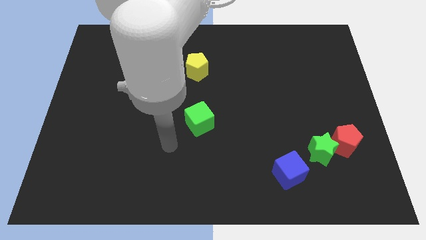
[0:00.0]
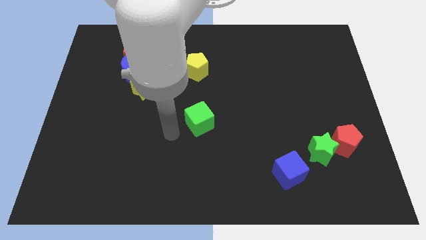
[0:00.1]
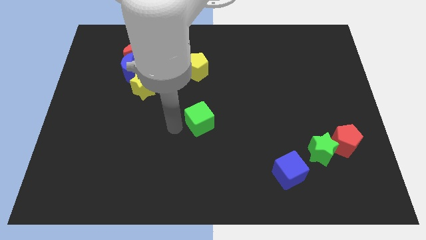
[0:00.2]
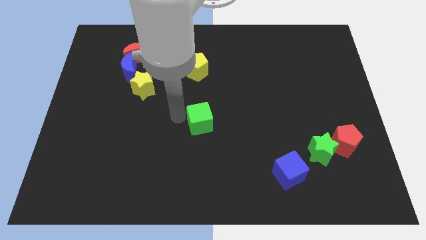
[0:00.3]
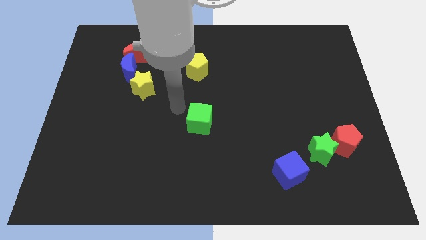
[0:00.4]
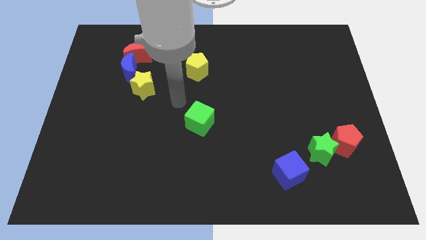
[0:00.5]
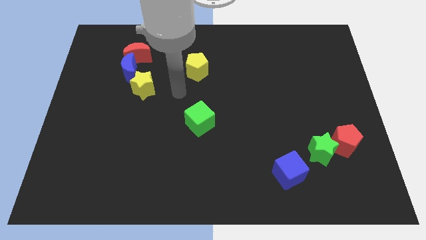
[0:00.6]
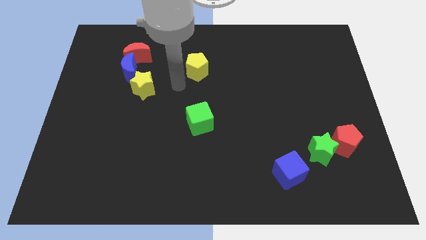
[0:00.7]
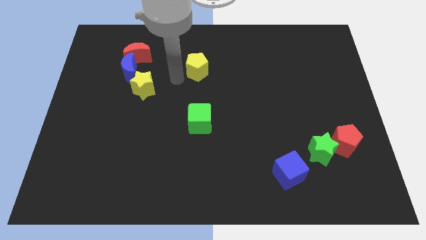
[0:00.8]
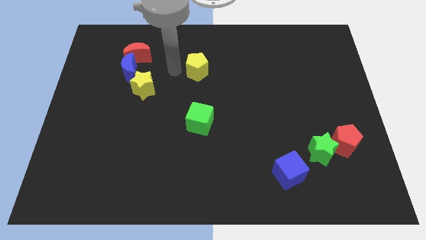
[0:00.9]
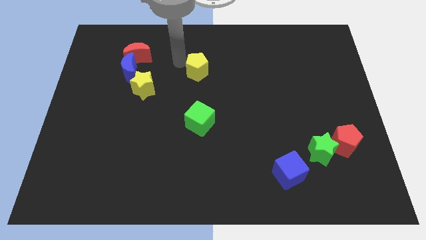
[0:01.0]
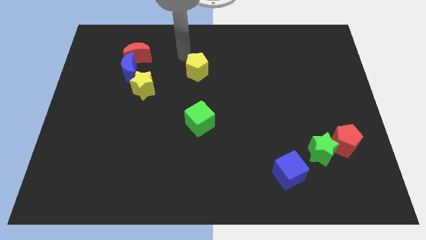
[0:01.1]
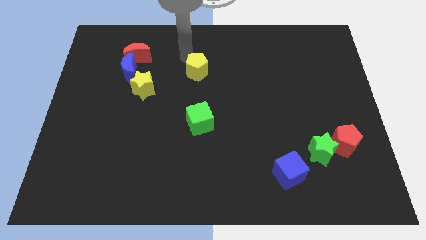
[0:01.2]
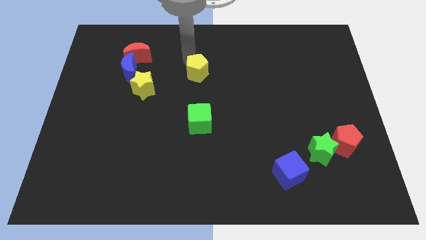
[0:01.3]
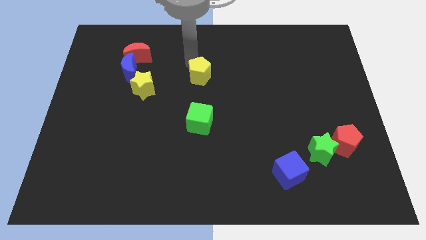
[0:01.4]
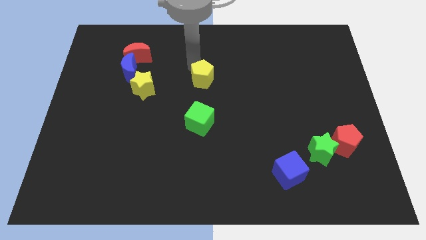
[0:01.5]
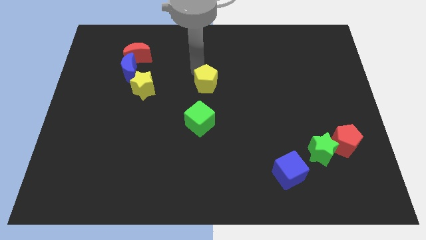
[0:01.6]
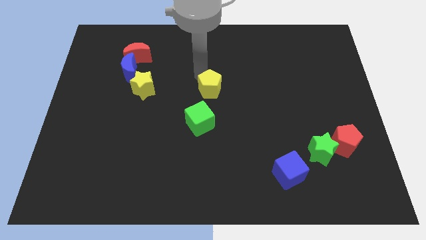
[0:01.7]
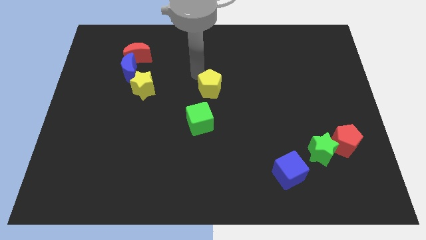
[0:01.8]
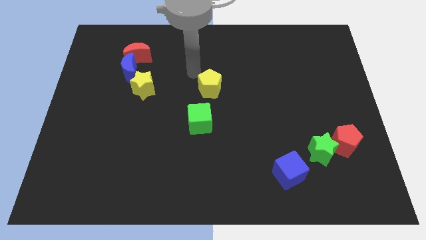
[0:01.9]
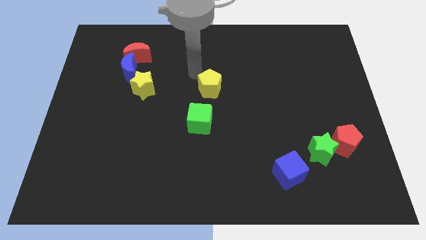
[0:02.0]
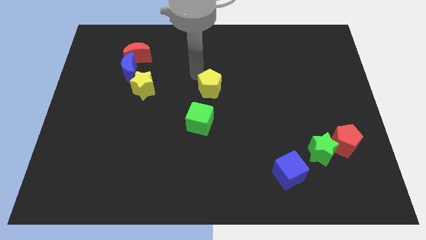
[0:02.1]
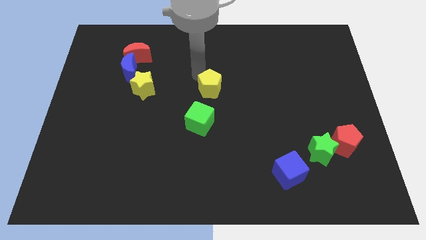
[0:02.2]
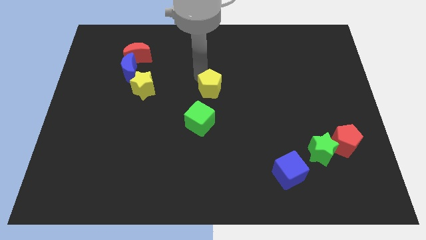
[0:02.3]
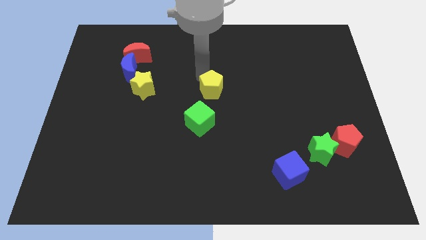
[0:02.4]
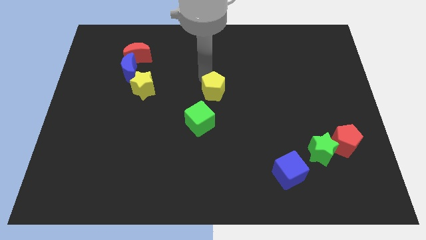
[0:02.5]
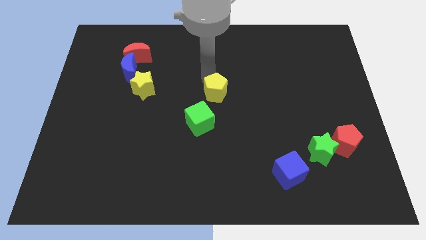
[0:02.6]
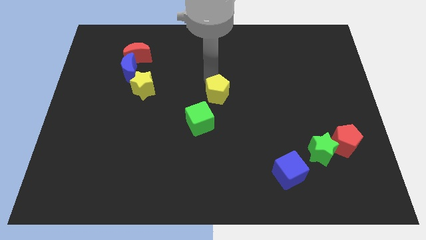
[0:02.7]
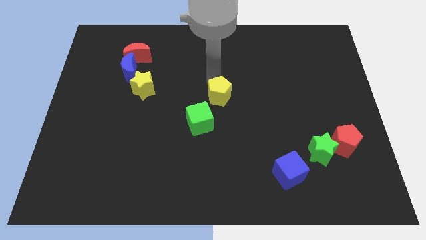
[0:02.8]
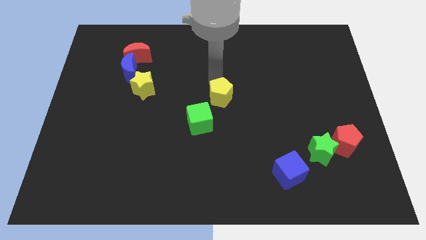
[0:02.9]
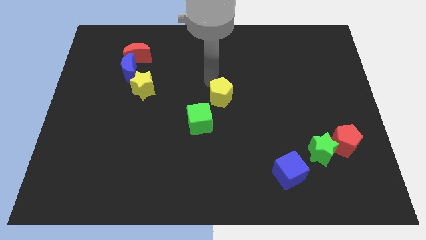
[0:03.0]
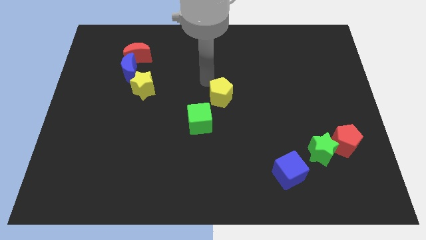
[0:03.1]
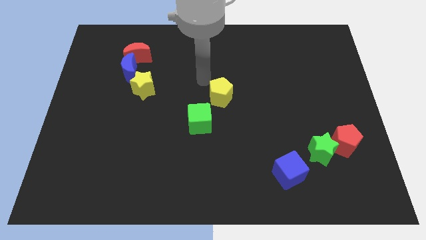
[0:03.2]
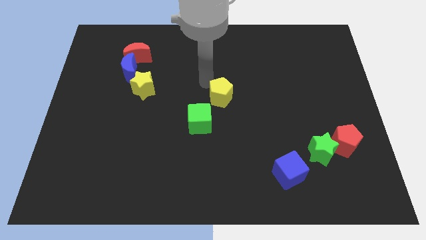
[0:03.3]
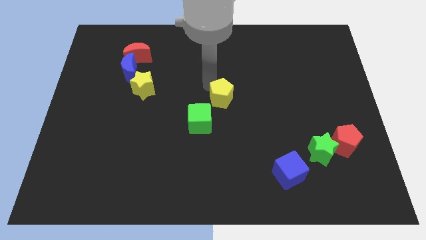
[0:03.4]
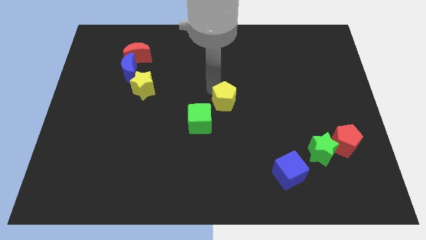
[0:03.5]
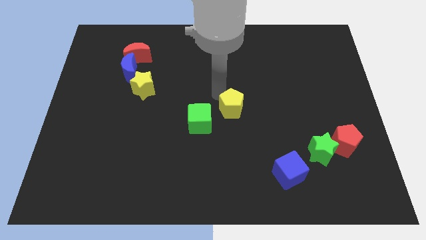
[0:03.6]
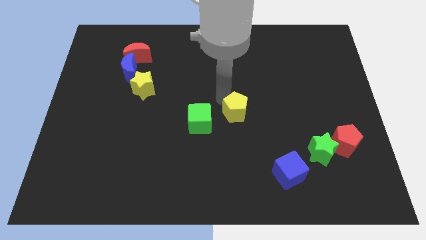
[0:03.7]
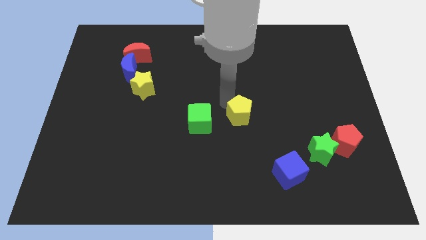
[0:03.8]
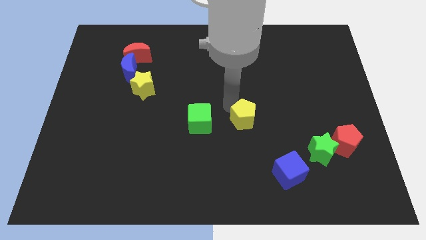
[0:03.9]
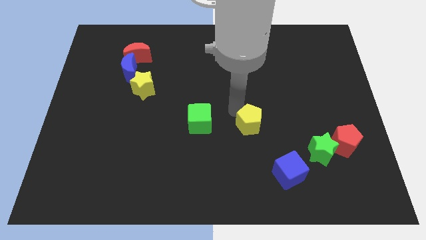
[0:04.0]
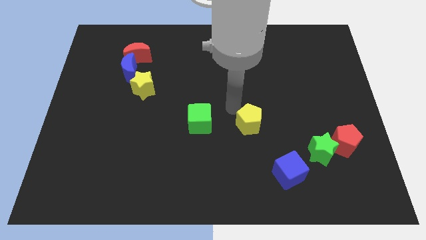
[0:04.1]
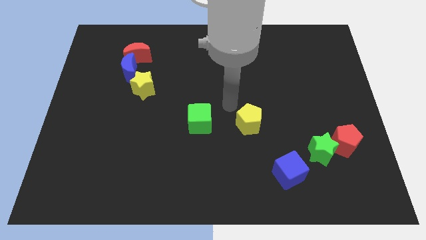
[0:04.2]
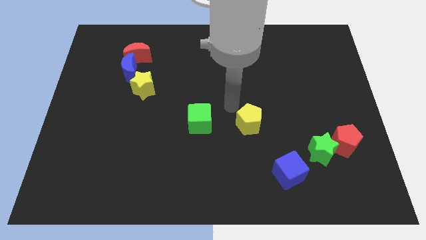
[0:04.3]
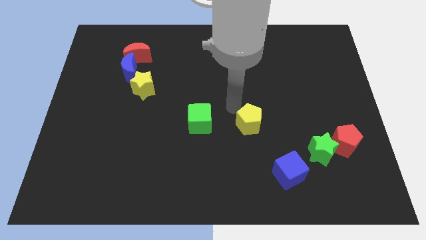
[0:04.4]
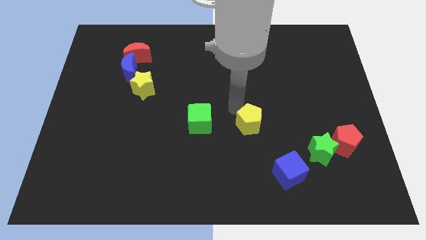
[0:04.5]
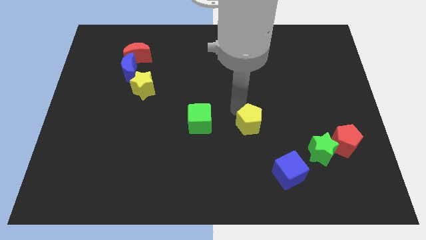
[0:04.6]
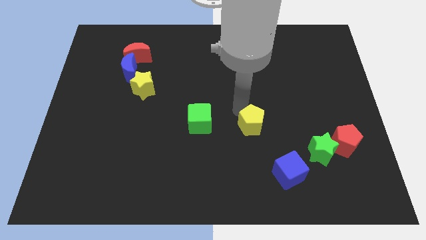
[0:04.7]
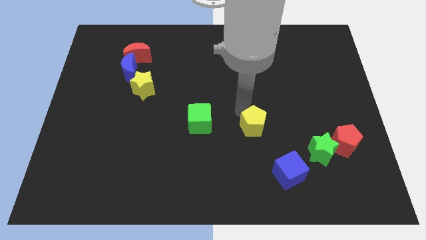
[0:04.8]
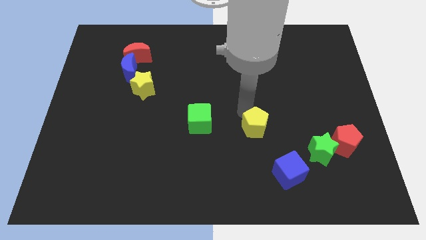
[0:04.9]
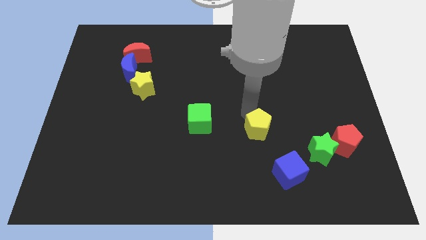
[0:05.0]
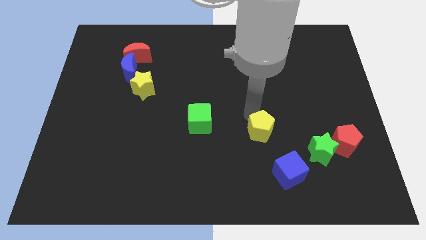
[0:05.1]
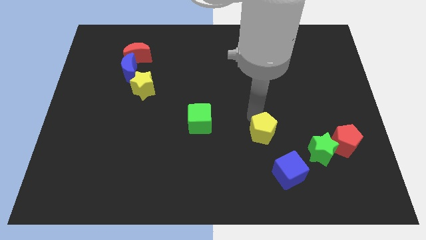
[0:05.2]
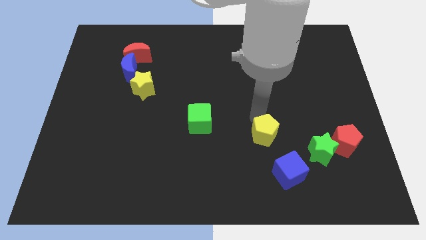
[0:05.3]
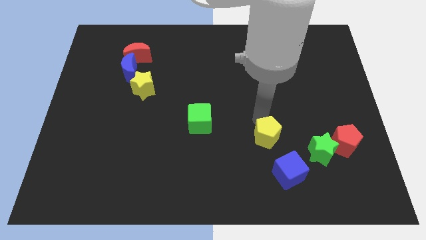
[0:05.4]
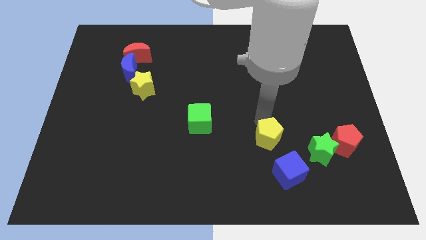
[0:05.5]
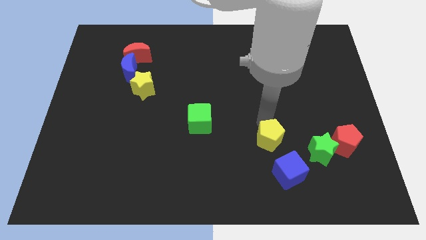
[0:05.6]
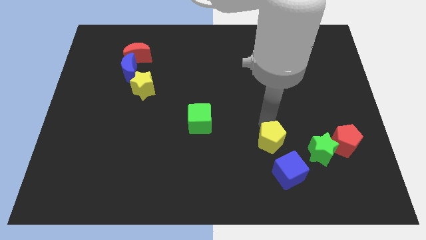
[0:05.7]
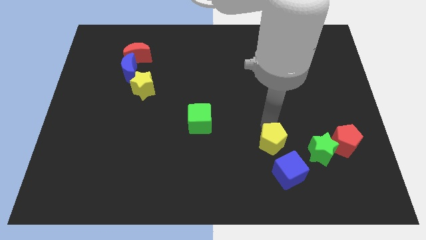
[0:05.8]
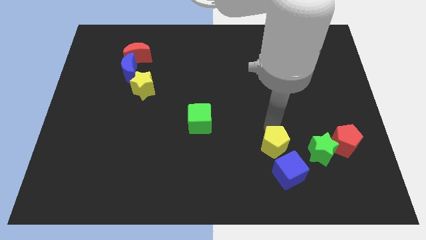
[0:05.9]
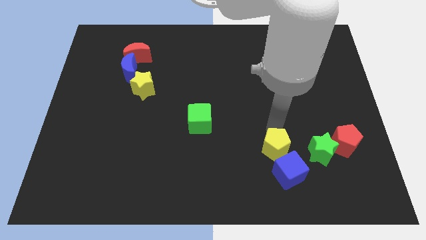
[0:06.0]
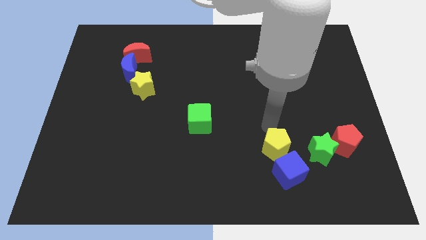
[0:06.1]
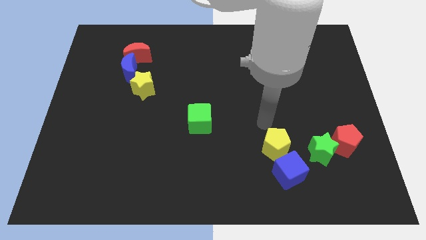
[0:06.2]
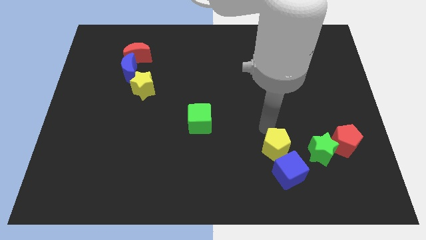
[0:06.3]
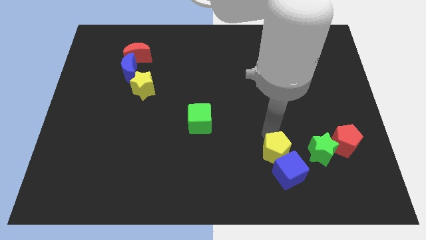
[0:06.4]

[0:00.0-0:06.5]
put the yellow pentagon to the blue cube

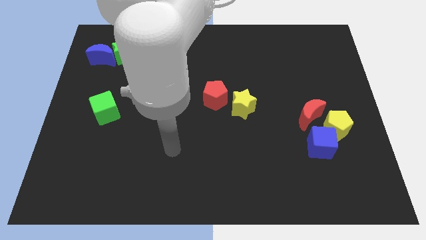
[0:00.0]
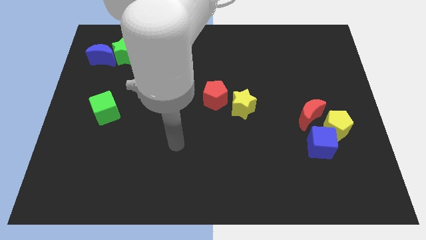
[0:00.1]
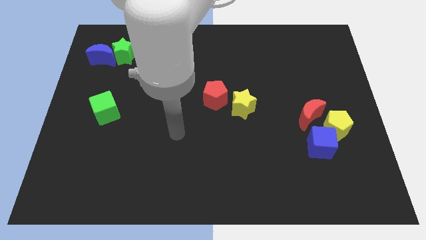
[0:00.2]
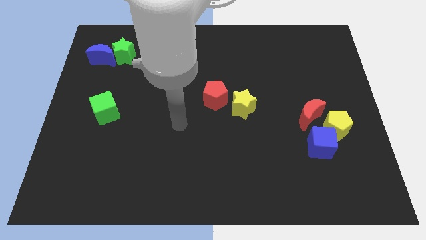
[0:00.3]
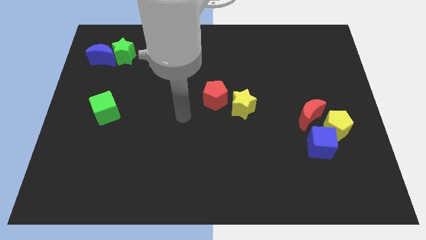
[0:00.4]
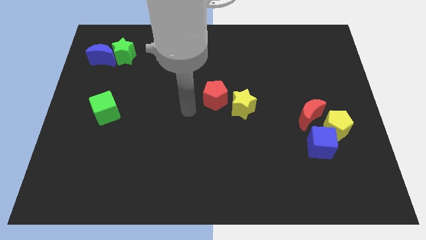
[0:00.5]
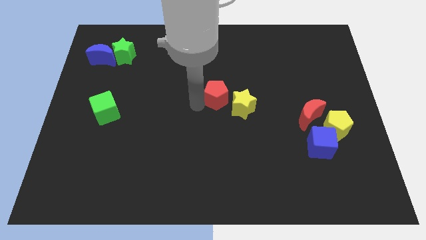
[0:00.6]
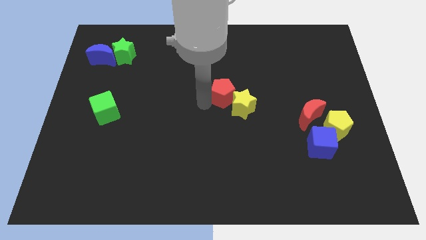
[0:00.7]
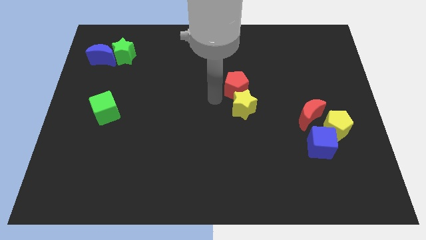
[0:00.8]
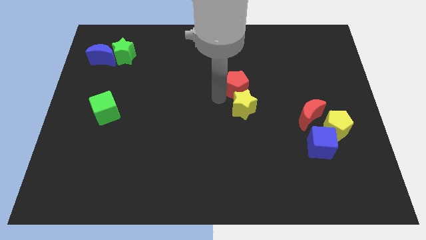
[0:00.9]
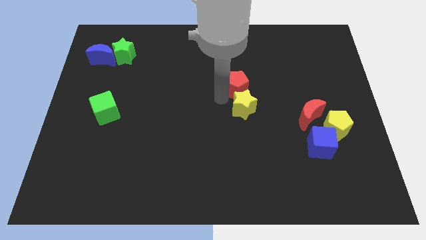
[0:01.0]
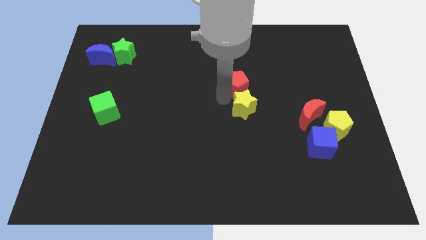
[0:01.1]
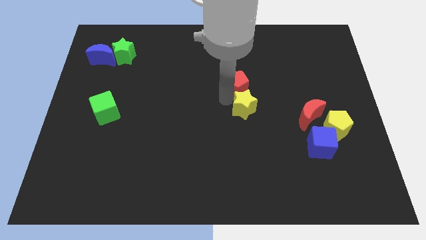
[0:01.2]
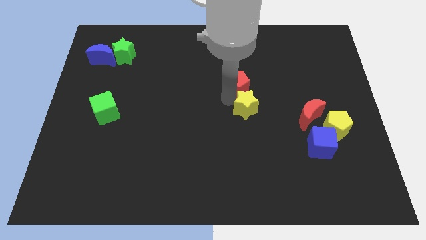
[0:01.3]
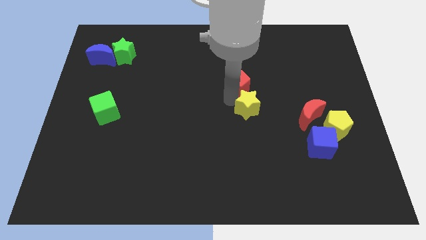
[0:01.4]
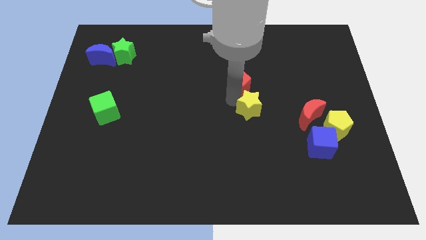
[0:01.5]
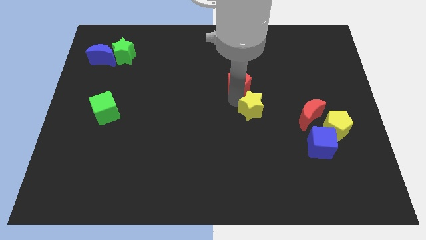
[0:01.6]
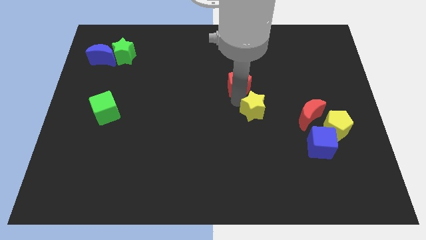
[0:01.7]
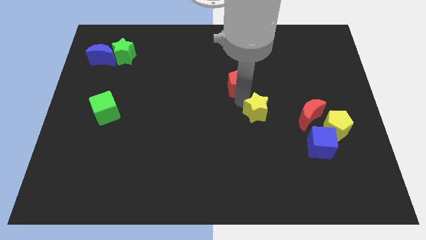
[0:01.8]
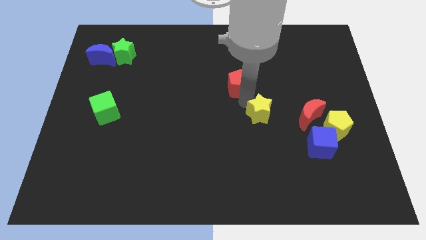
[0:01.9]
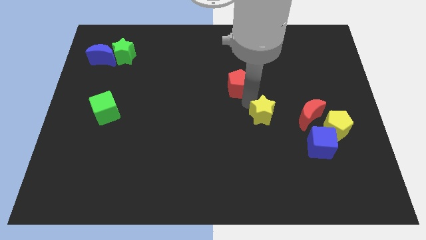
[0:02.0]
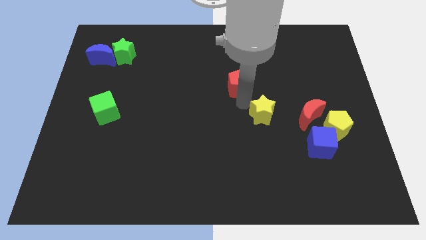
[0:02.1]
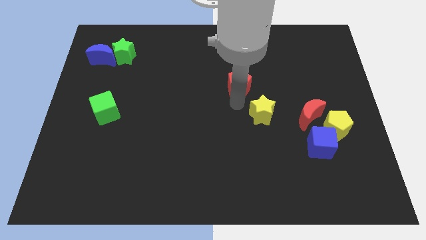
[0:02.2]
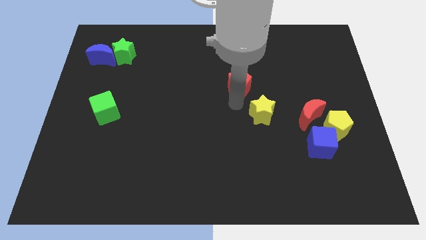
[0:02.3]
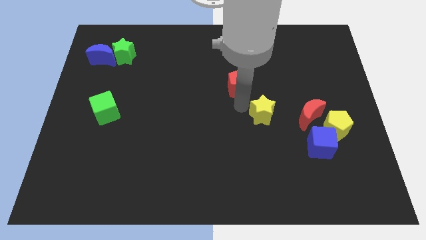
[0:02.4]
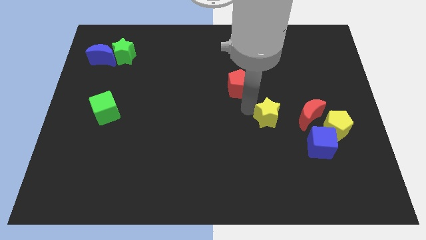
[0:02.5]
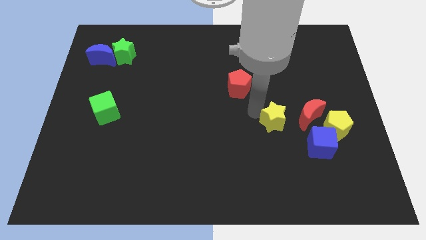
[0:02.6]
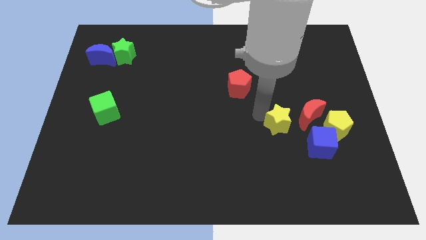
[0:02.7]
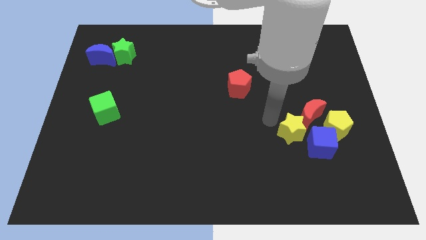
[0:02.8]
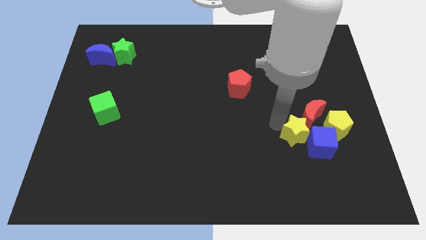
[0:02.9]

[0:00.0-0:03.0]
slide the yellow star next to the blue cube
